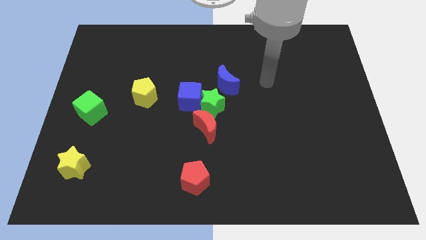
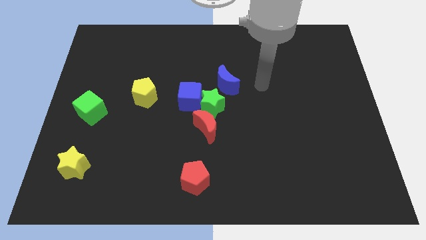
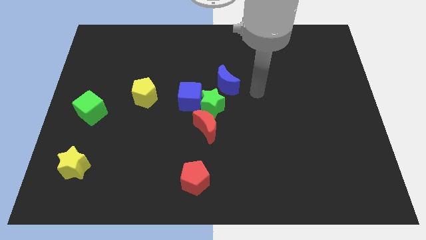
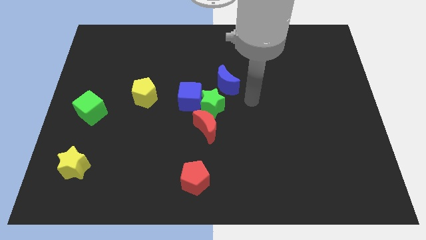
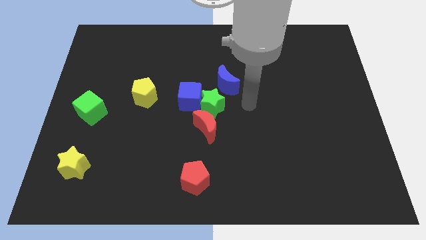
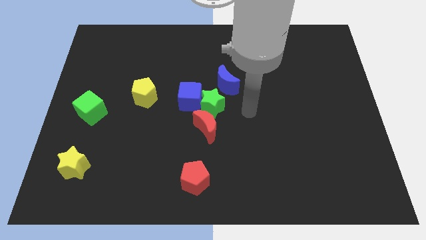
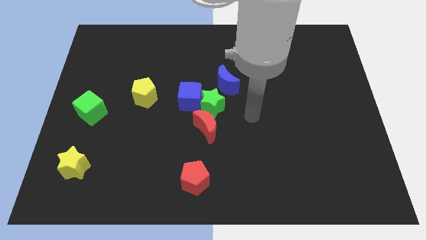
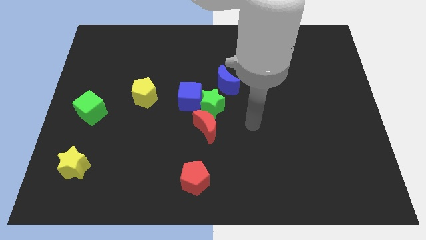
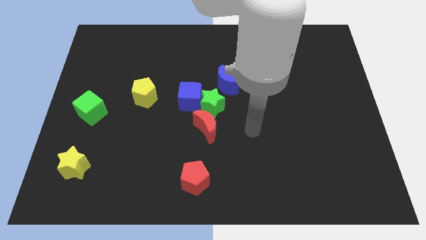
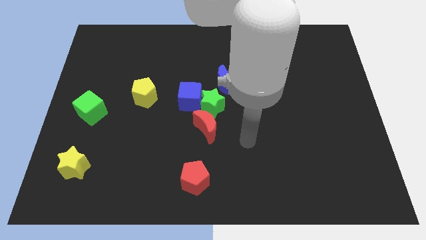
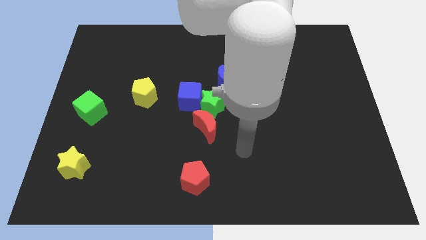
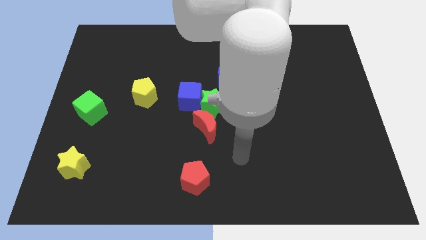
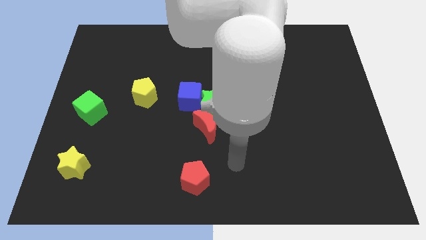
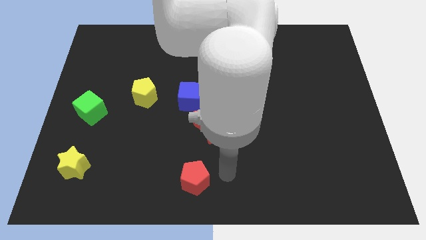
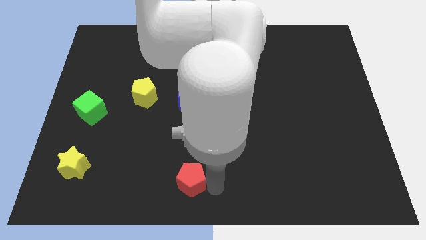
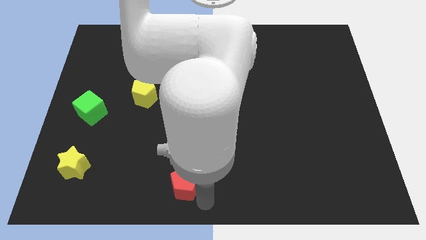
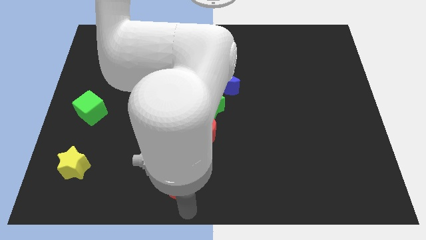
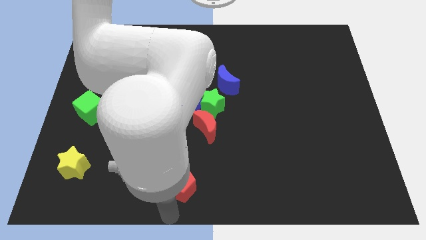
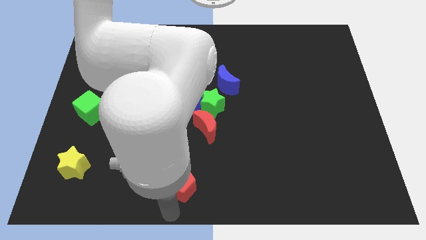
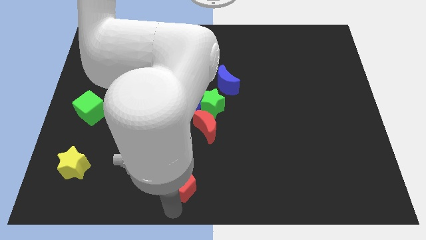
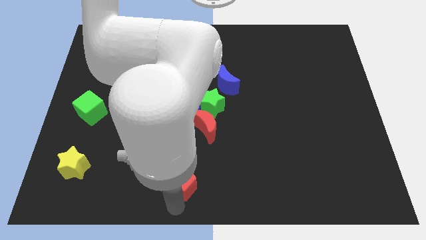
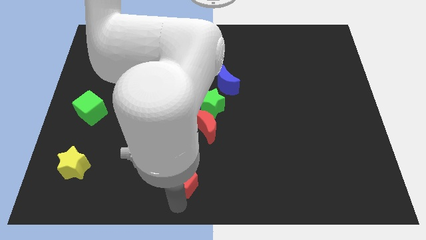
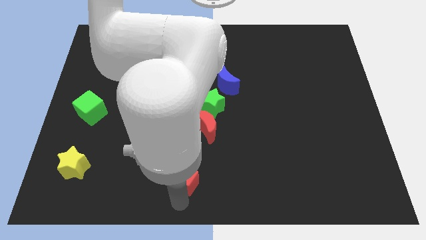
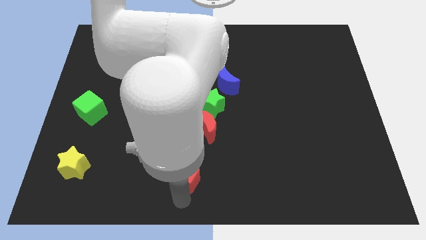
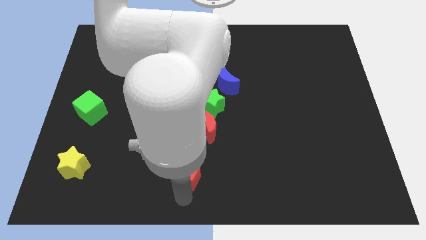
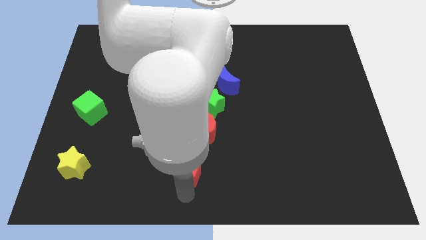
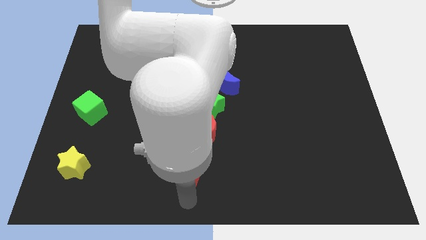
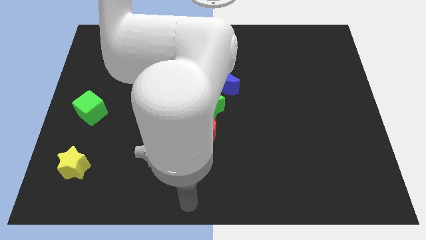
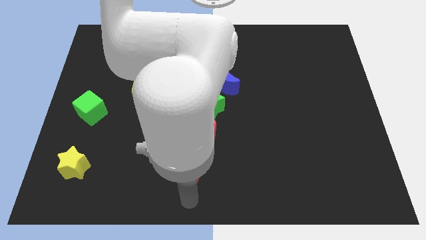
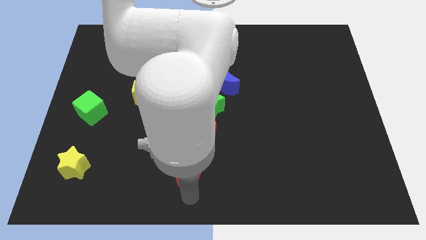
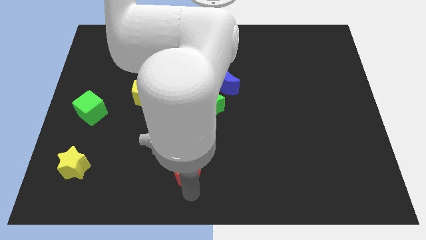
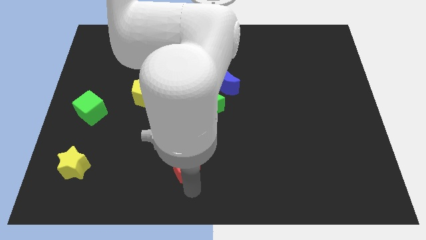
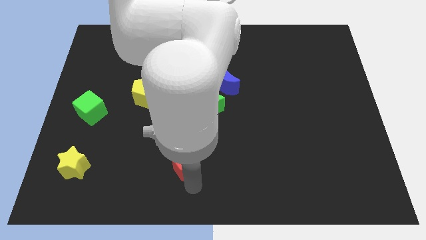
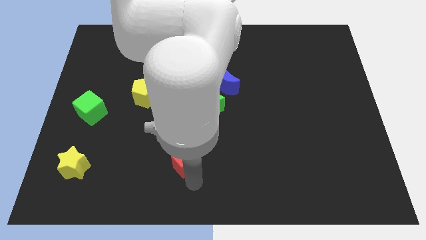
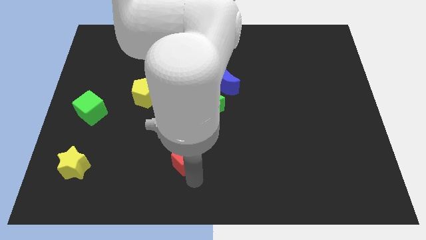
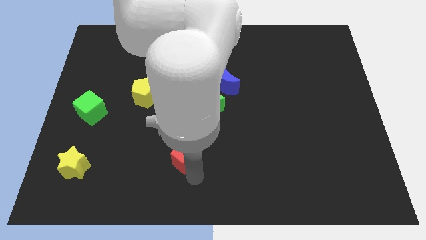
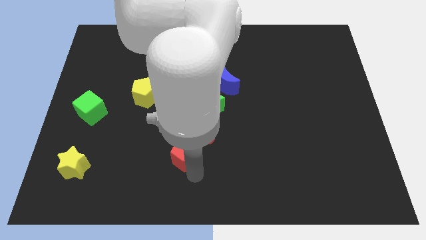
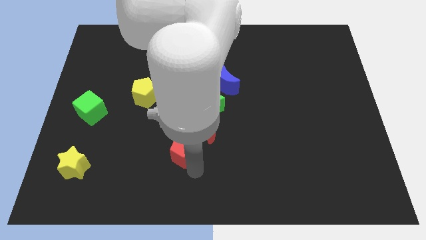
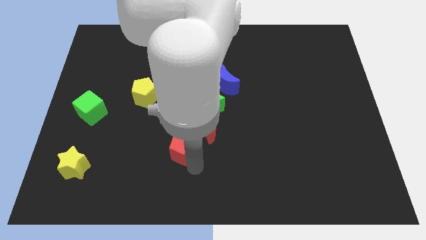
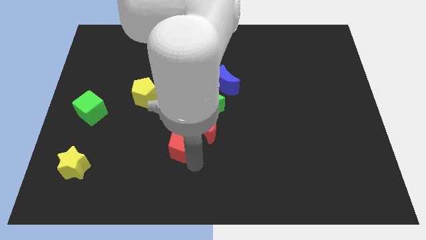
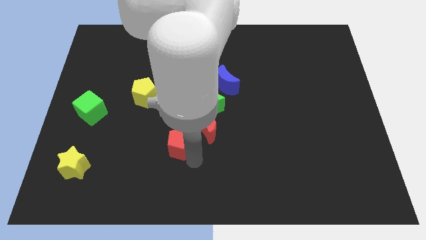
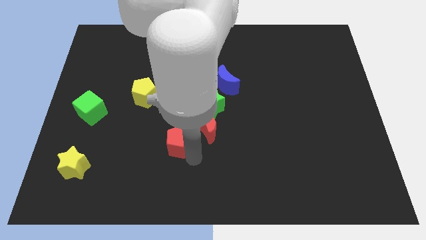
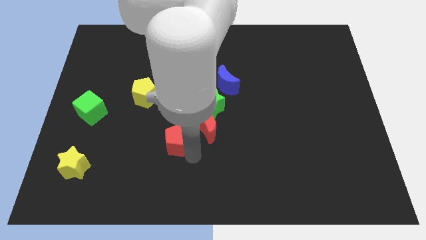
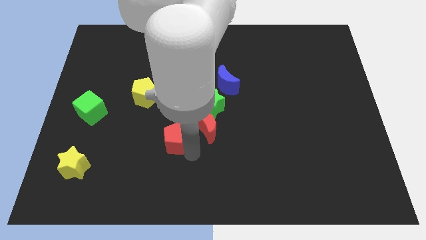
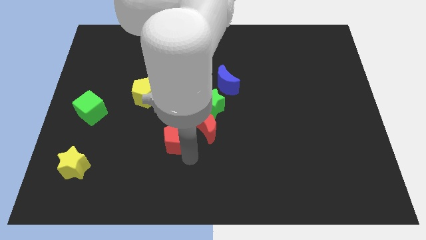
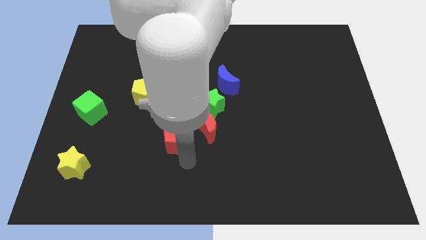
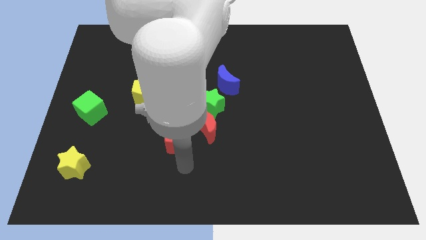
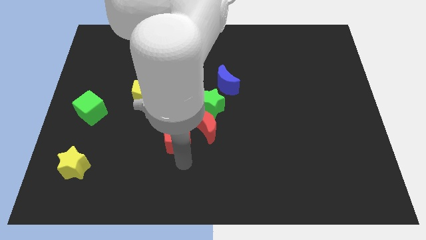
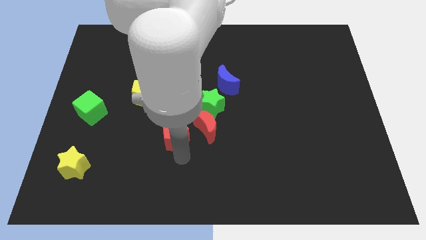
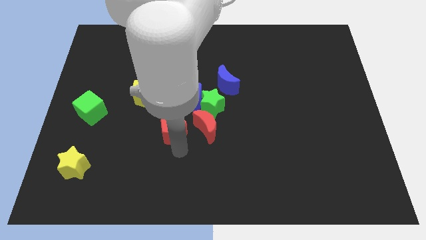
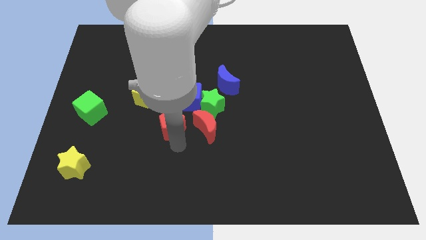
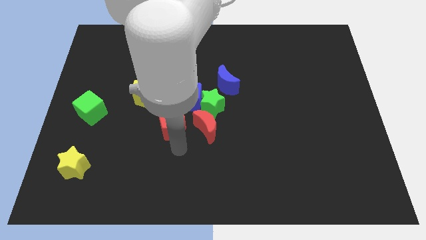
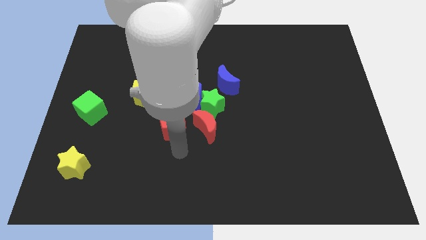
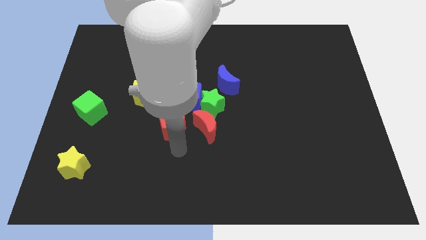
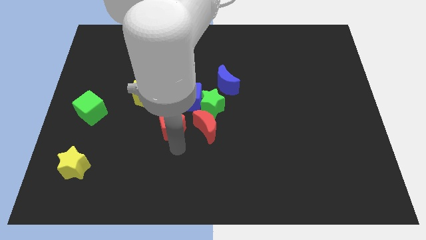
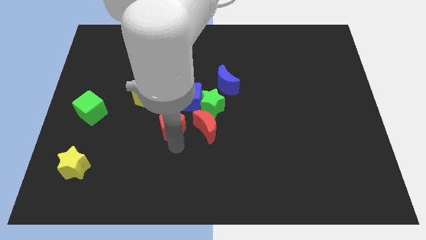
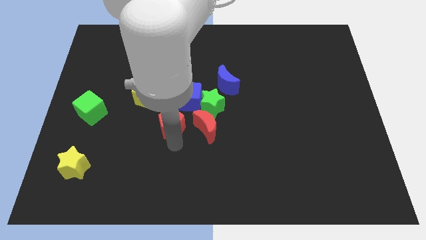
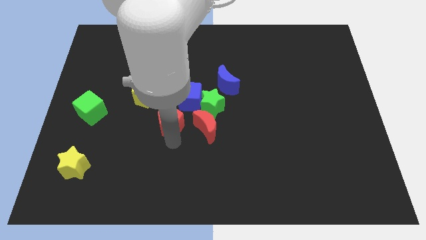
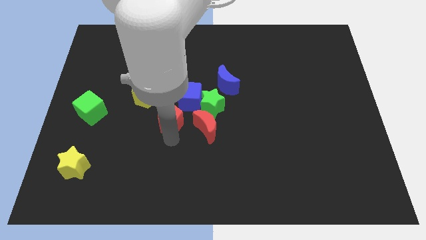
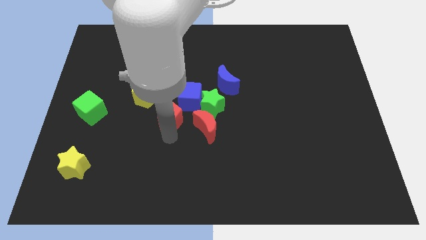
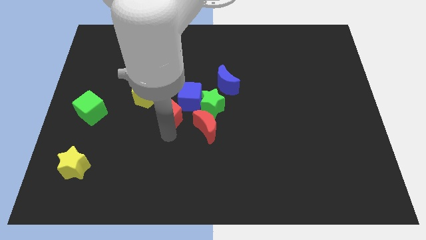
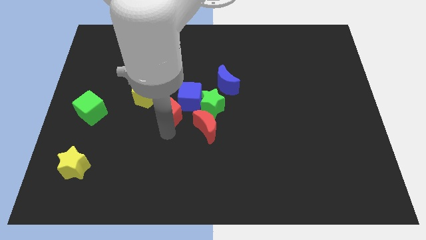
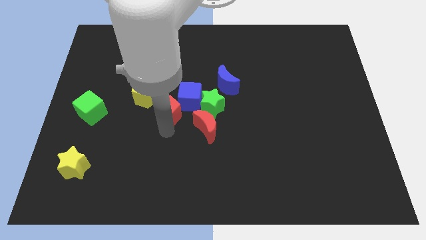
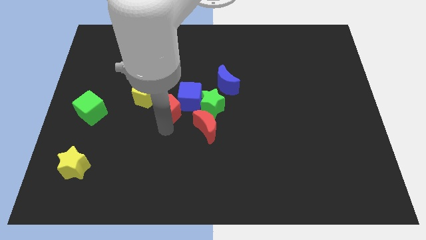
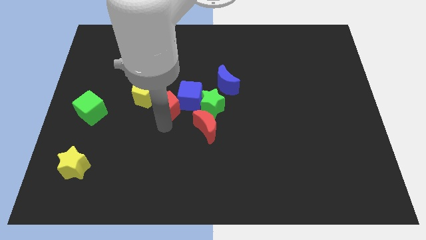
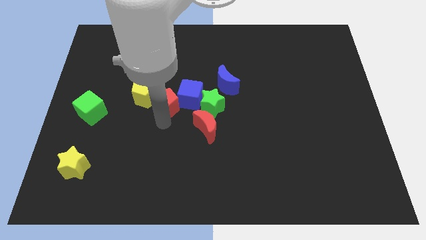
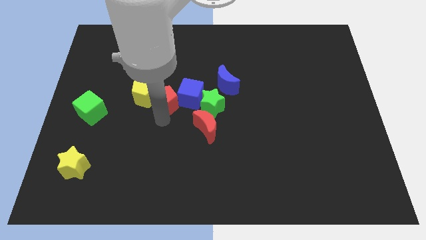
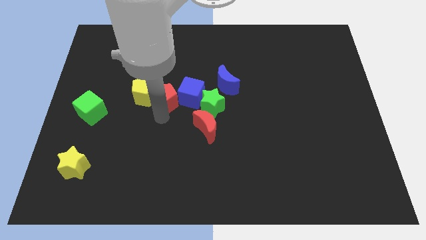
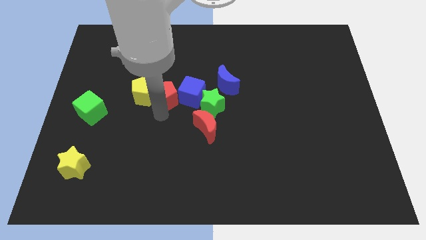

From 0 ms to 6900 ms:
move the red pentagon to the top left side of the blue cube
